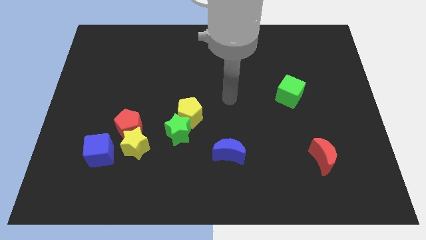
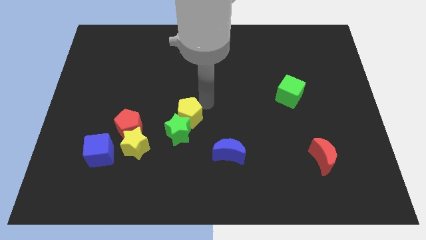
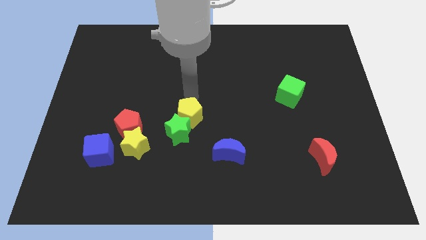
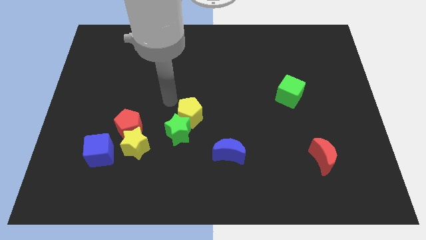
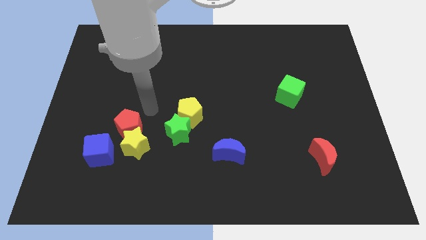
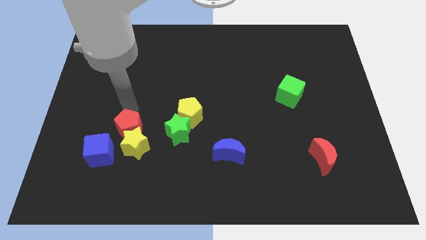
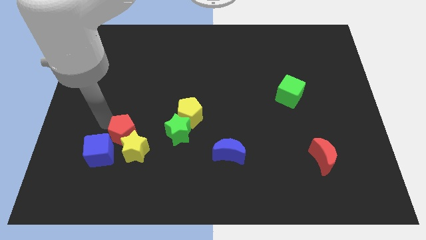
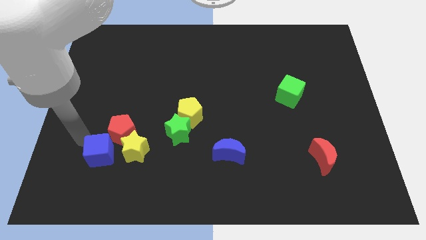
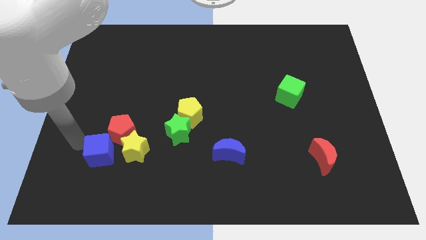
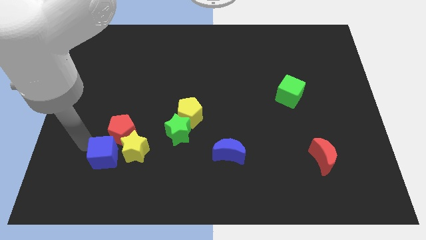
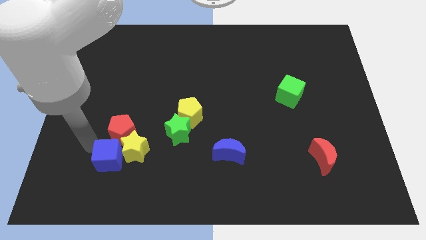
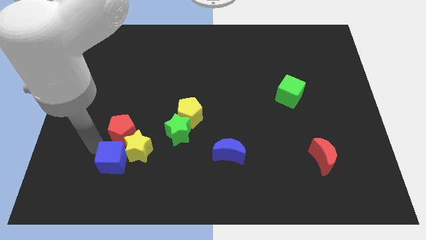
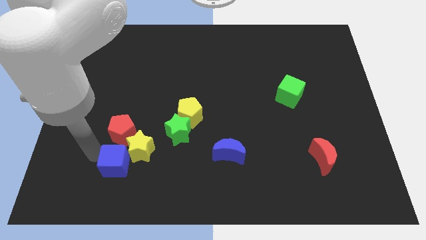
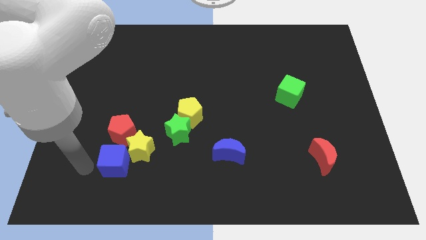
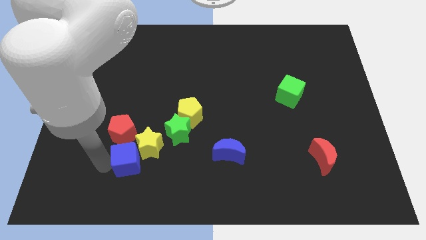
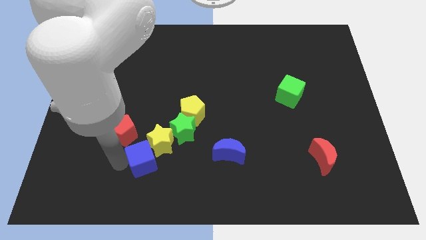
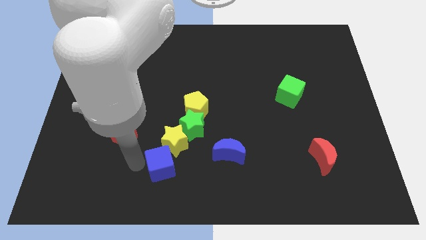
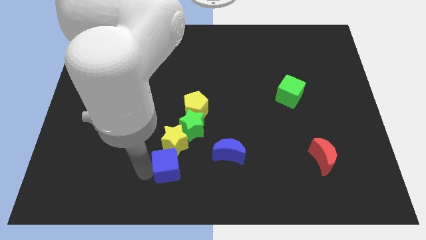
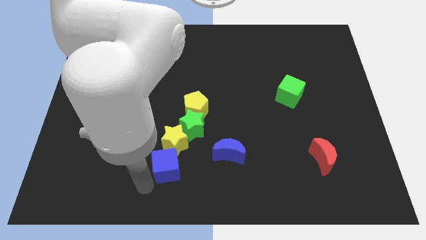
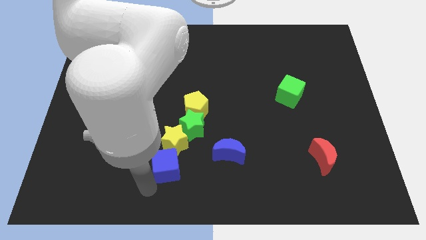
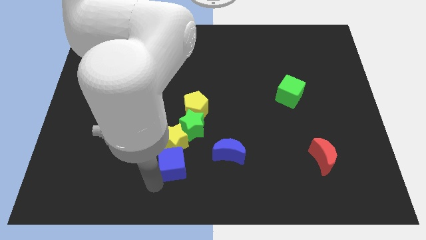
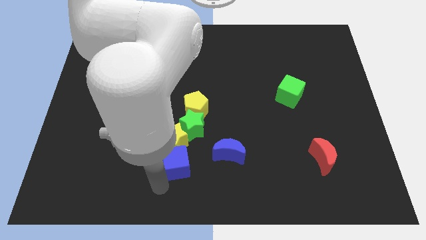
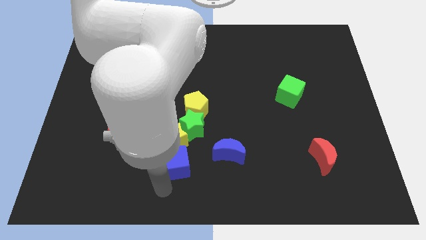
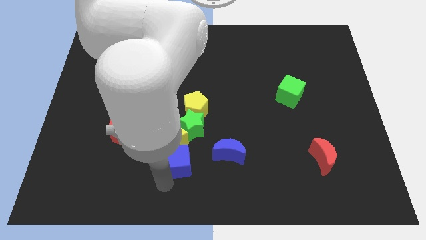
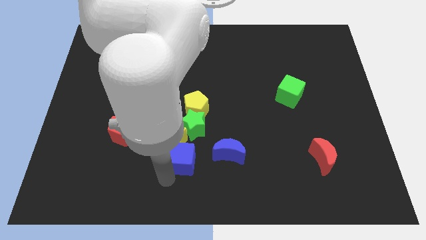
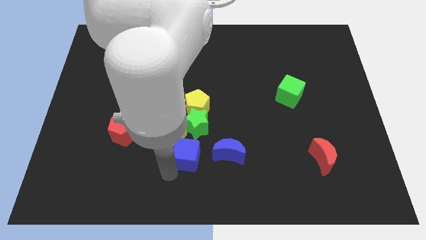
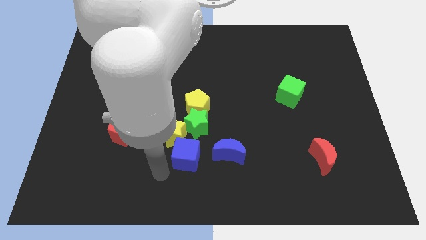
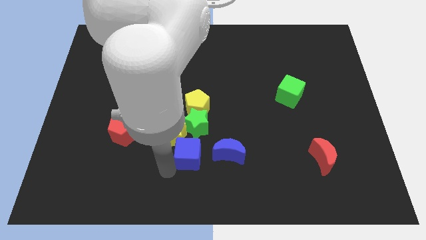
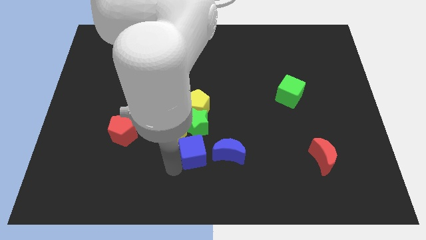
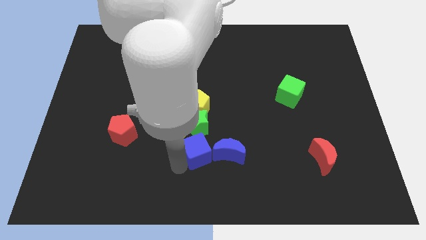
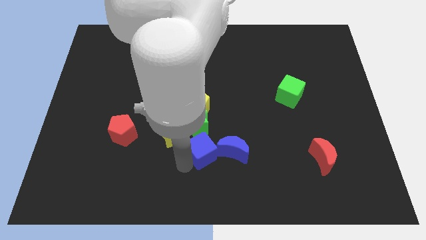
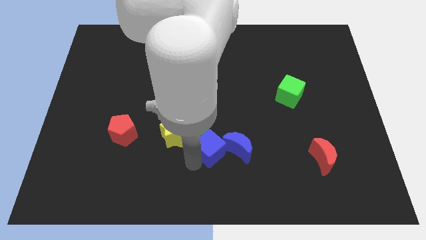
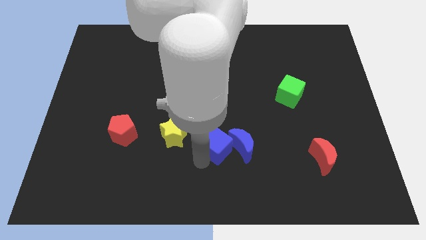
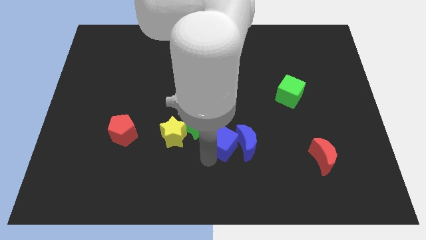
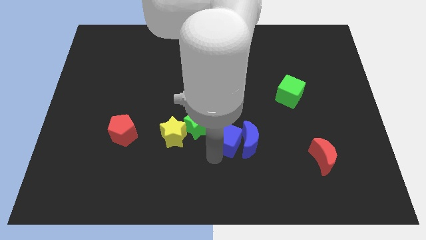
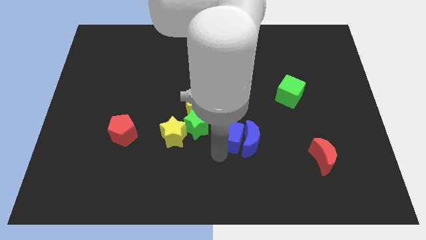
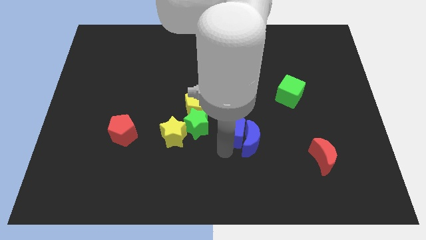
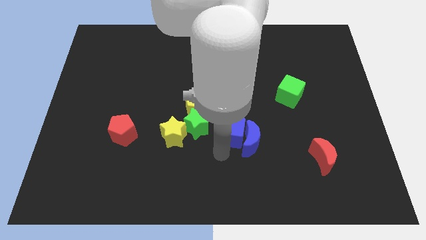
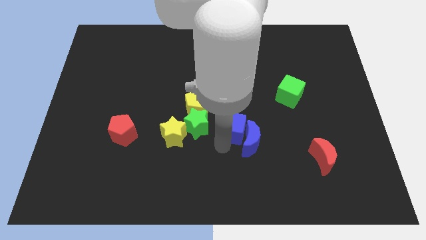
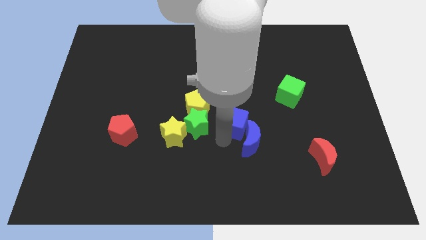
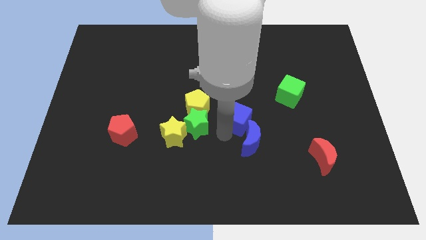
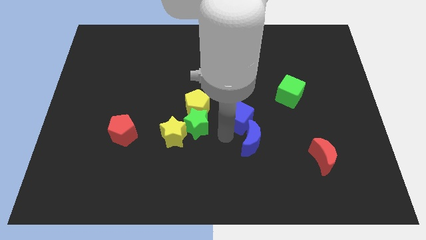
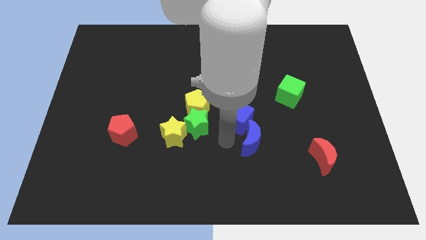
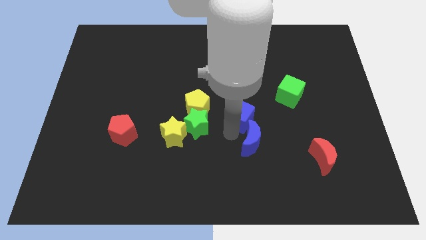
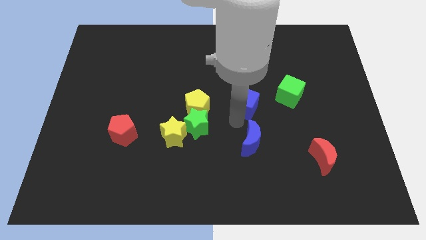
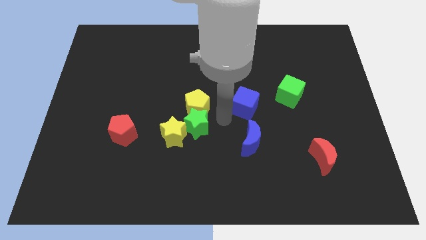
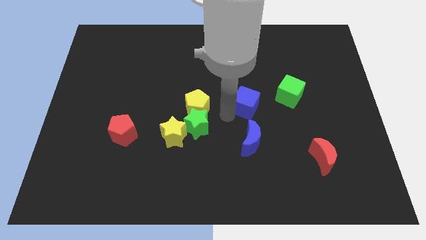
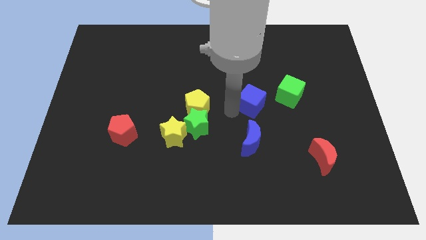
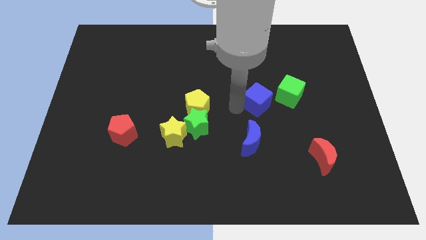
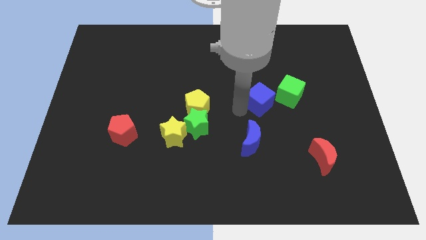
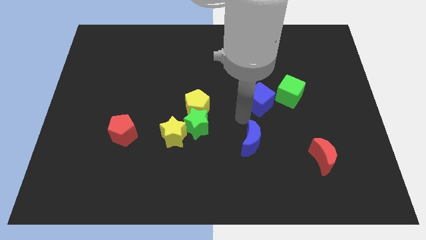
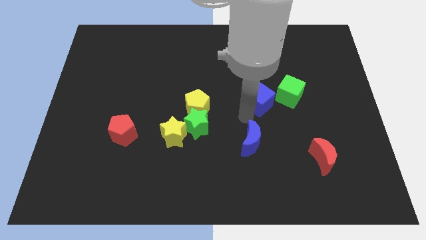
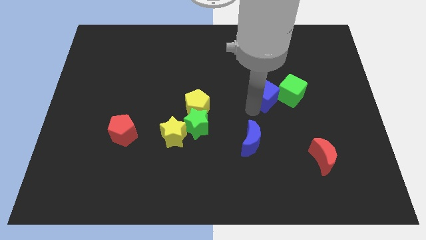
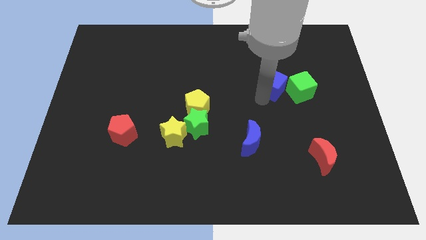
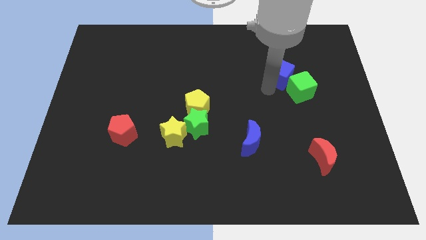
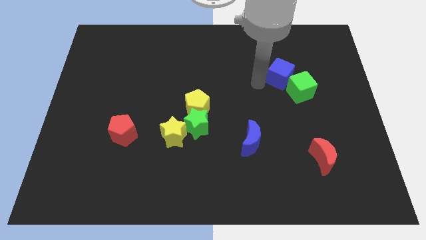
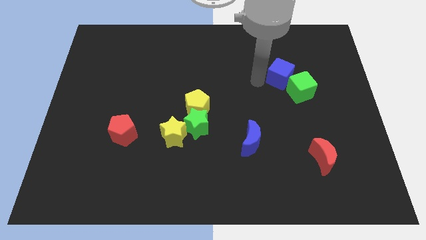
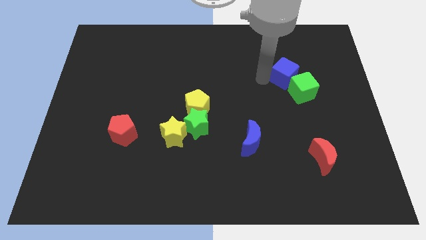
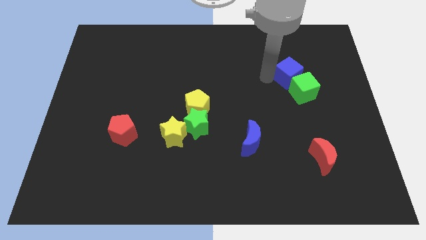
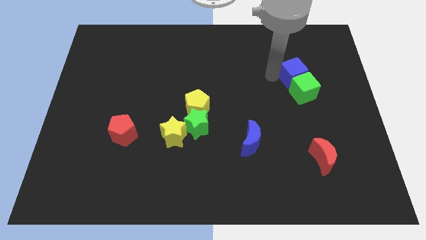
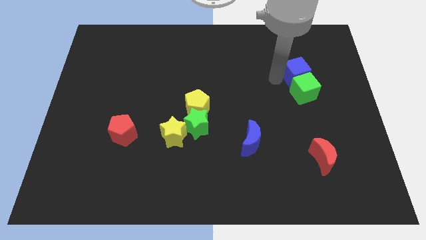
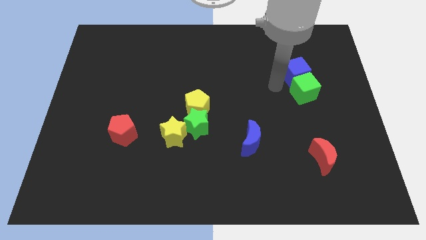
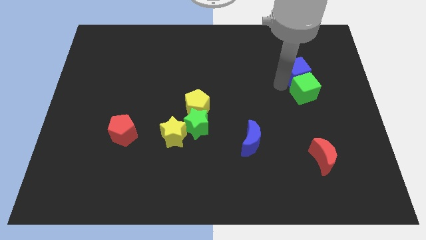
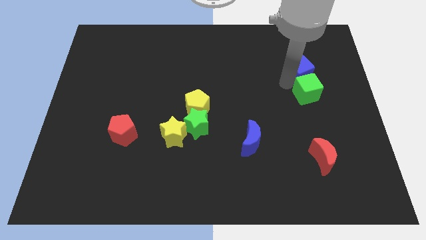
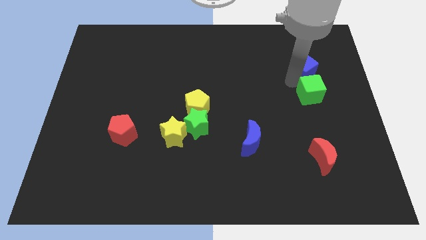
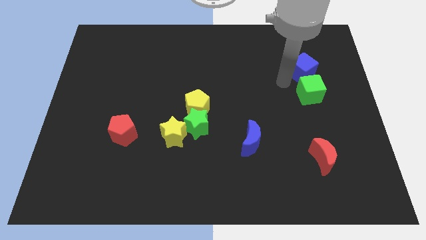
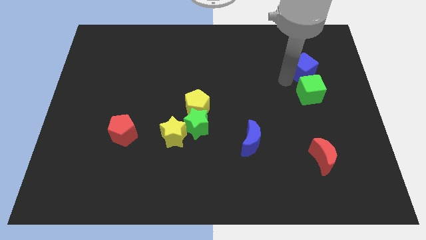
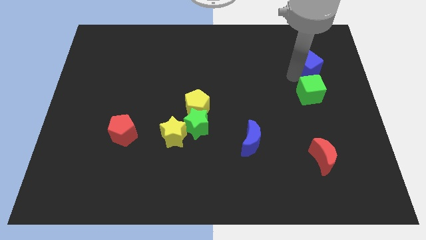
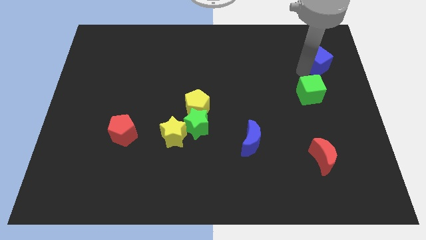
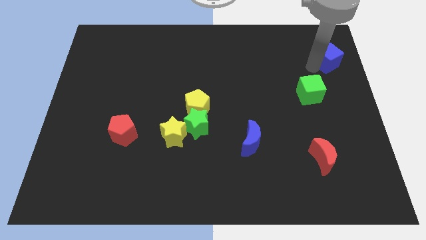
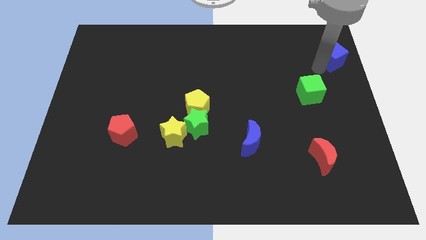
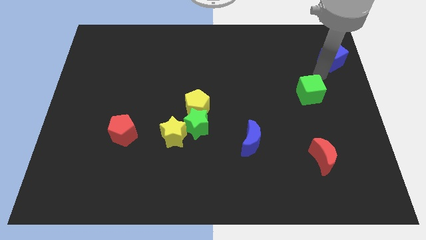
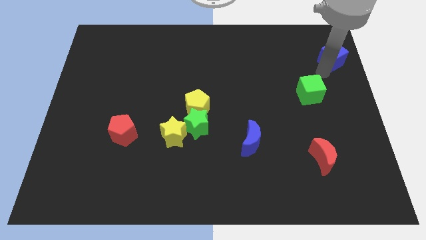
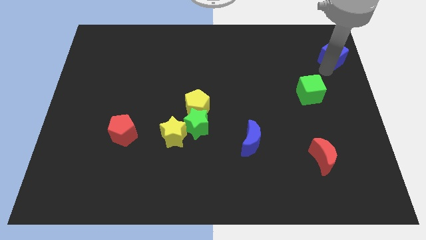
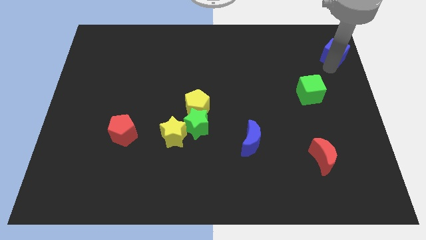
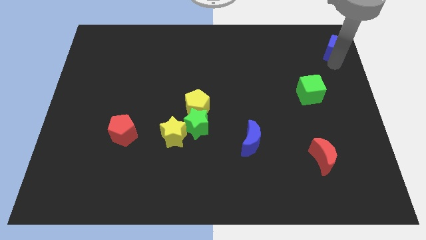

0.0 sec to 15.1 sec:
slide the blue cube to the top right corner
